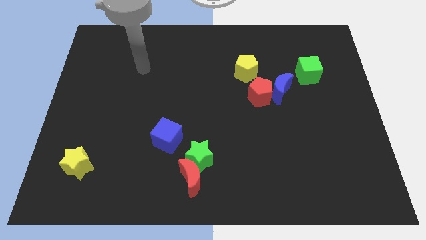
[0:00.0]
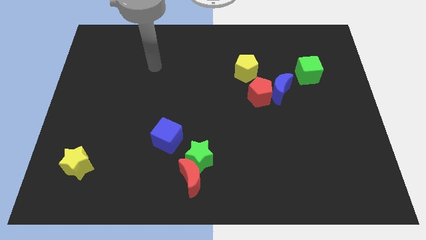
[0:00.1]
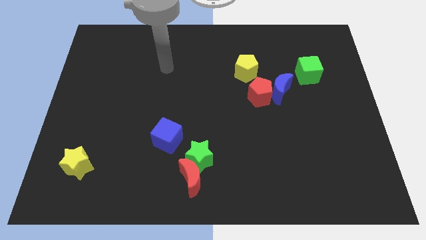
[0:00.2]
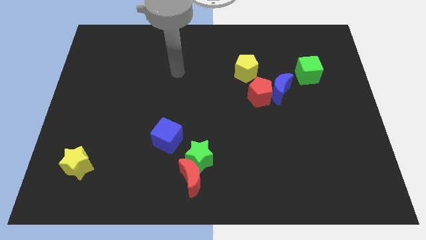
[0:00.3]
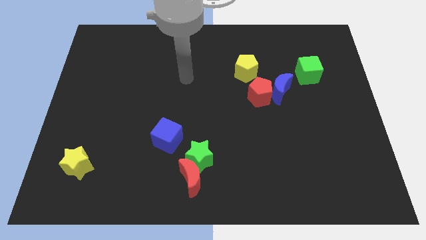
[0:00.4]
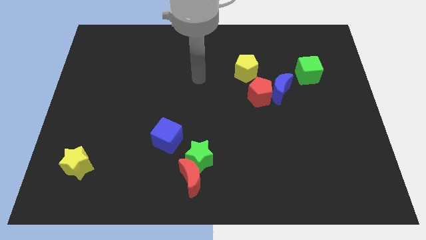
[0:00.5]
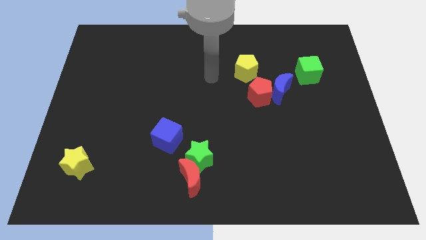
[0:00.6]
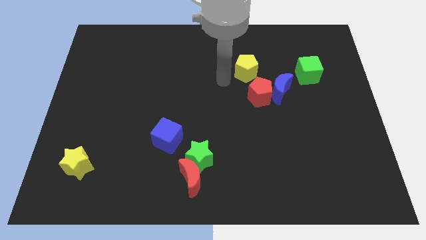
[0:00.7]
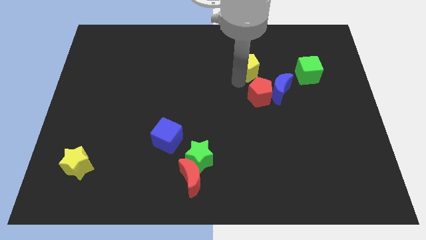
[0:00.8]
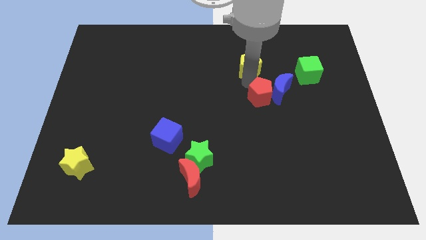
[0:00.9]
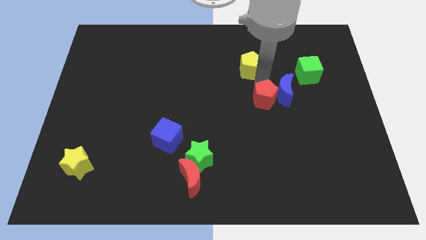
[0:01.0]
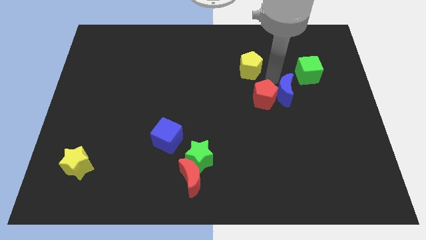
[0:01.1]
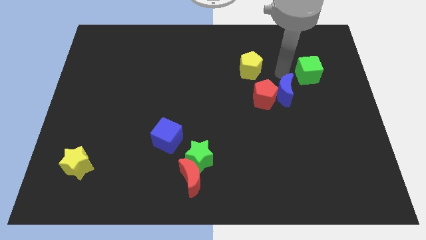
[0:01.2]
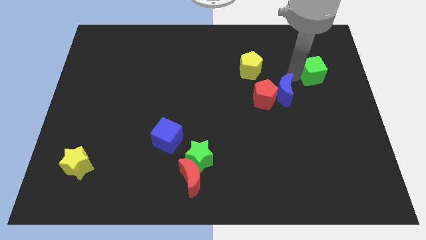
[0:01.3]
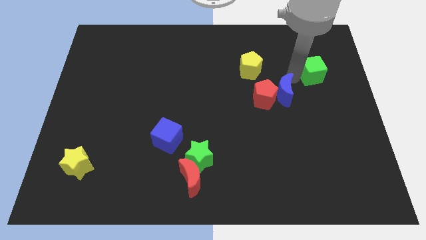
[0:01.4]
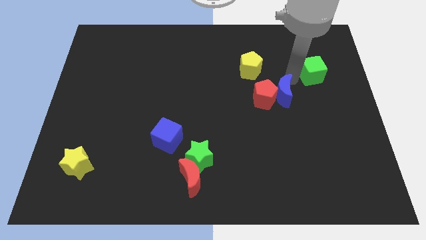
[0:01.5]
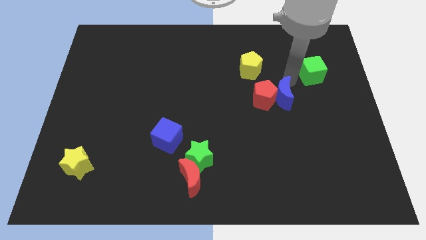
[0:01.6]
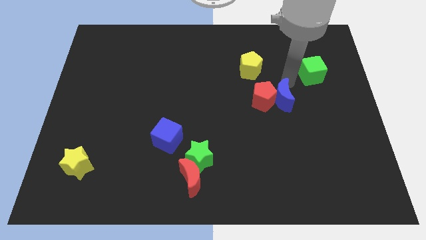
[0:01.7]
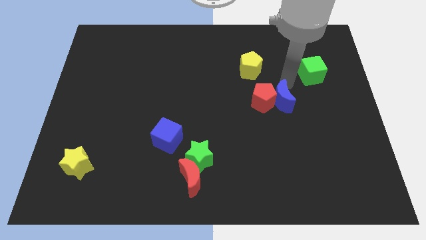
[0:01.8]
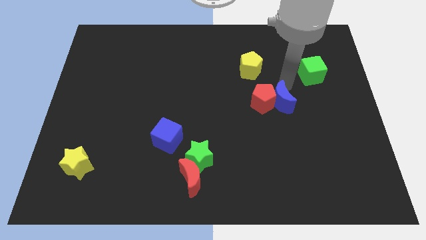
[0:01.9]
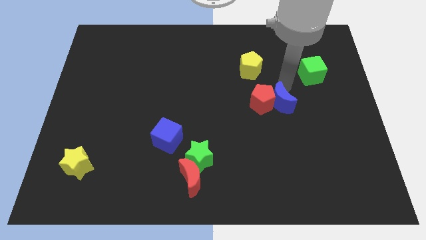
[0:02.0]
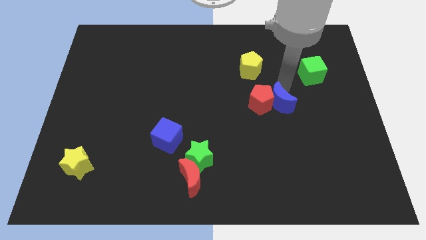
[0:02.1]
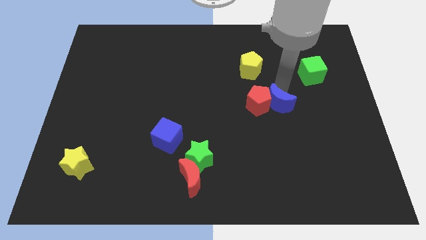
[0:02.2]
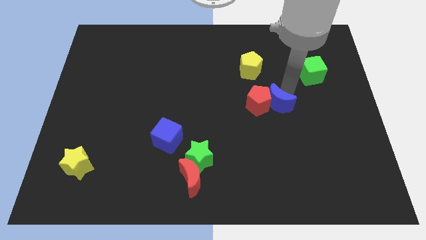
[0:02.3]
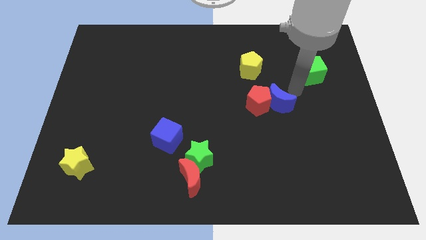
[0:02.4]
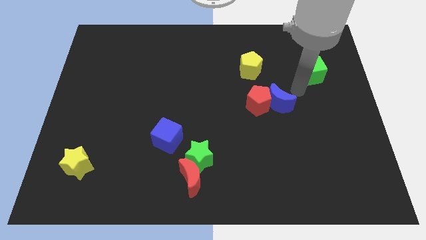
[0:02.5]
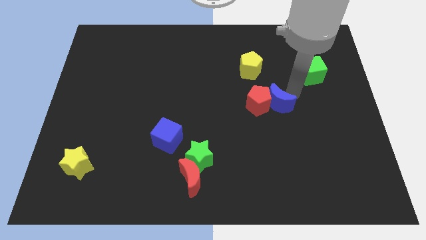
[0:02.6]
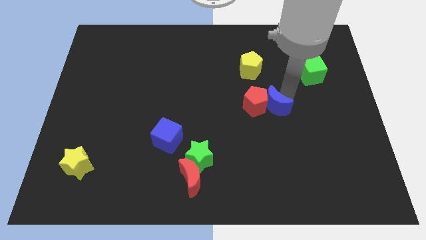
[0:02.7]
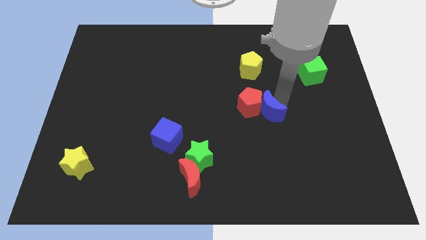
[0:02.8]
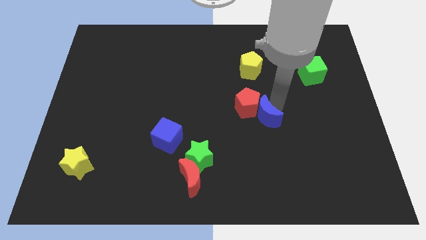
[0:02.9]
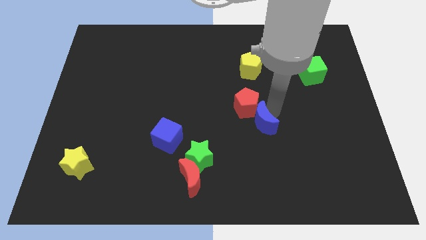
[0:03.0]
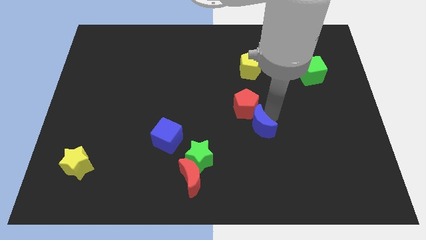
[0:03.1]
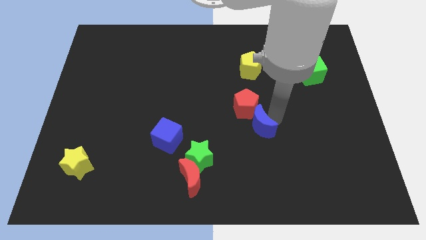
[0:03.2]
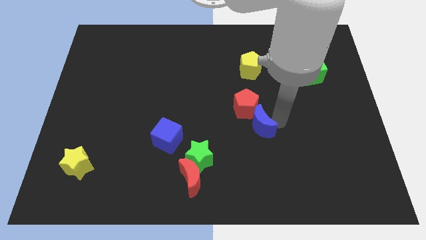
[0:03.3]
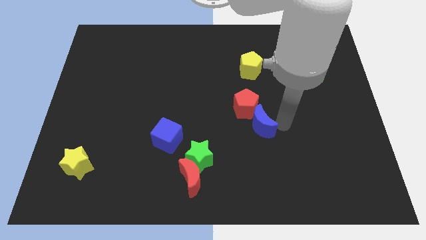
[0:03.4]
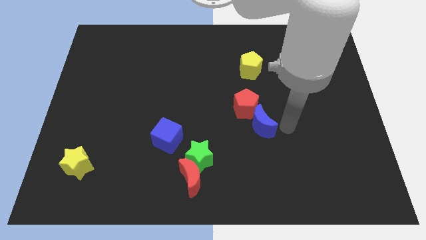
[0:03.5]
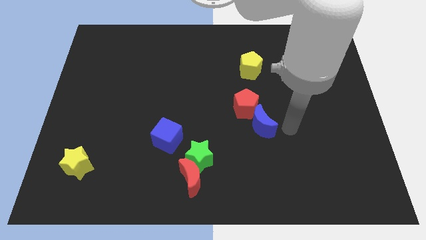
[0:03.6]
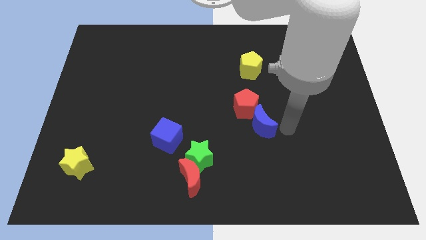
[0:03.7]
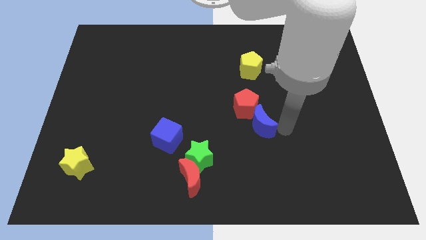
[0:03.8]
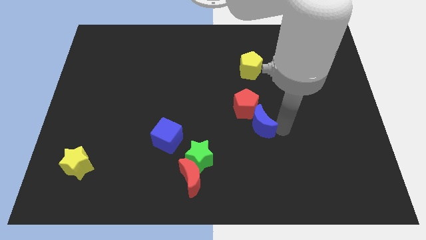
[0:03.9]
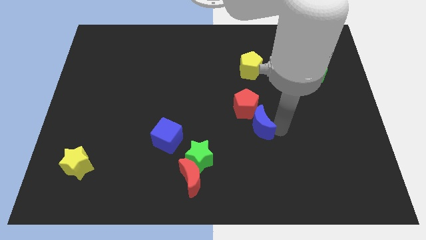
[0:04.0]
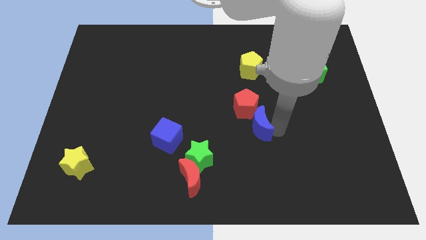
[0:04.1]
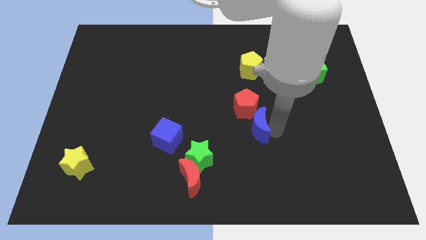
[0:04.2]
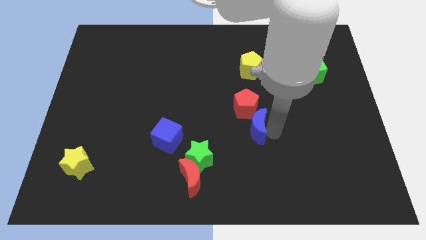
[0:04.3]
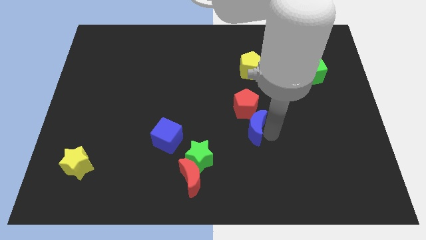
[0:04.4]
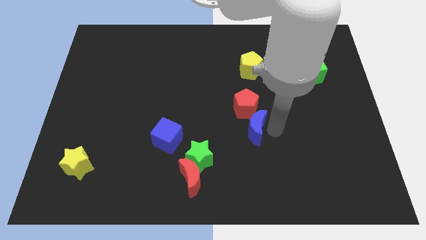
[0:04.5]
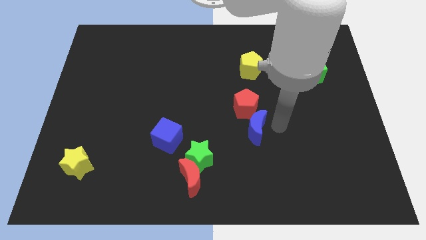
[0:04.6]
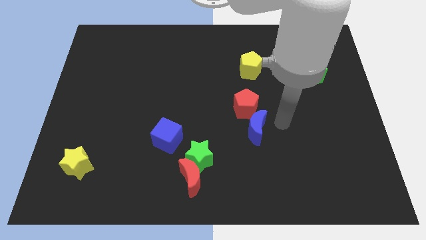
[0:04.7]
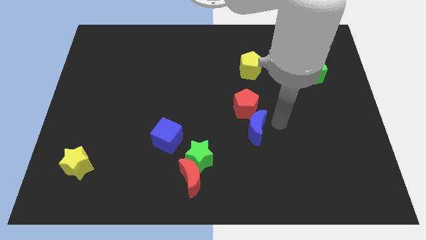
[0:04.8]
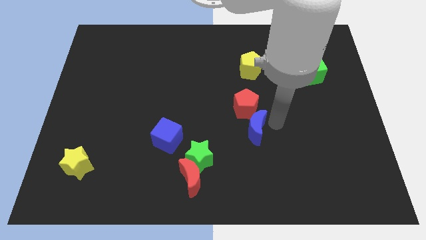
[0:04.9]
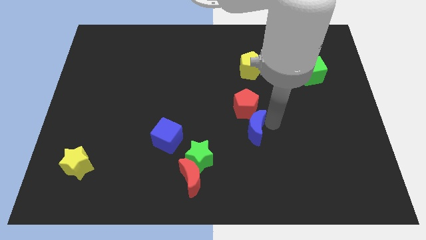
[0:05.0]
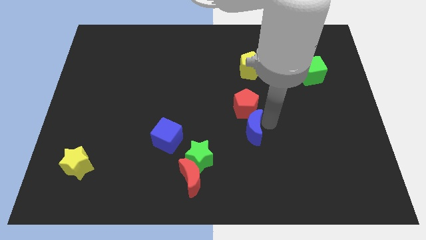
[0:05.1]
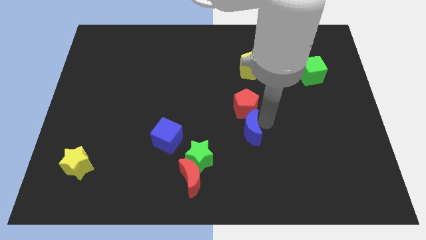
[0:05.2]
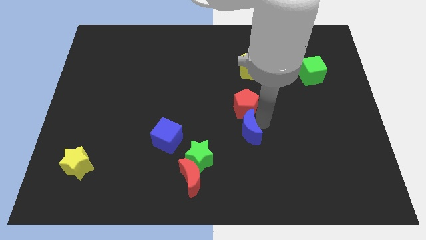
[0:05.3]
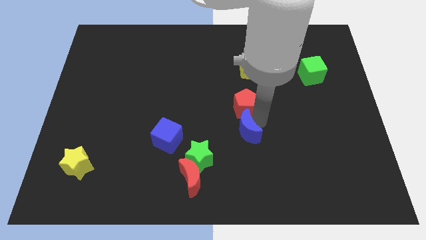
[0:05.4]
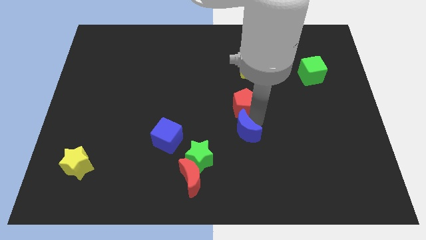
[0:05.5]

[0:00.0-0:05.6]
put the blue moon to the top right of the green star

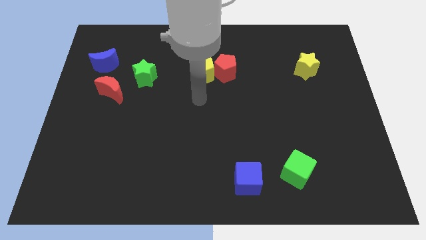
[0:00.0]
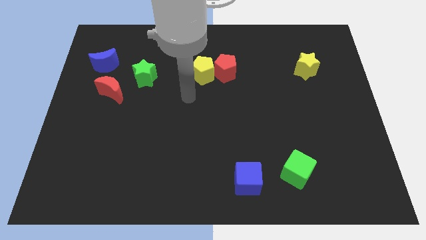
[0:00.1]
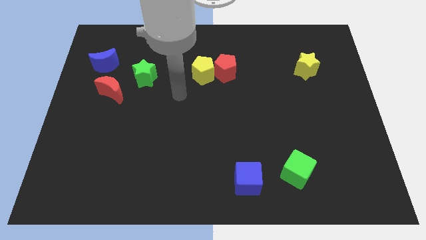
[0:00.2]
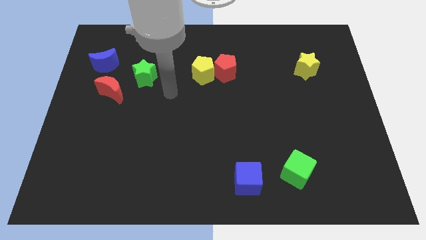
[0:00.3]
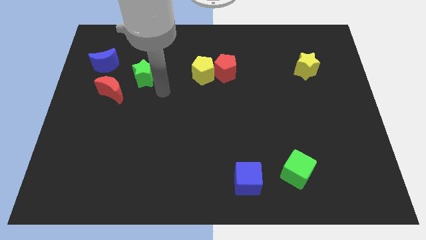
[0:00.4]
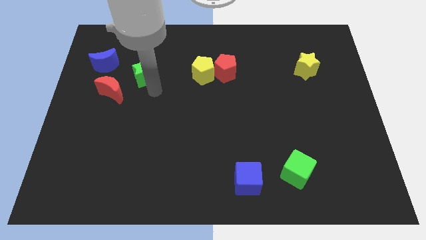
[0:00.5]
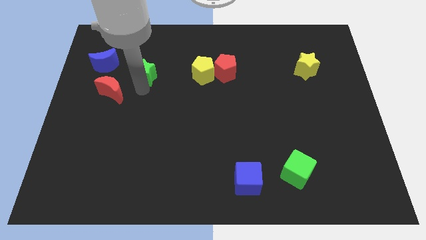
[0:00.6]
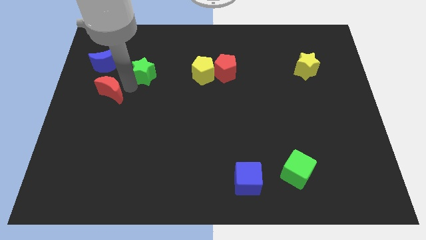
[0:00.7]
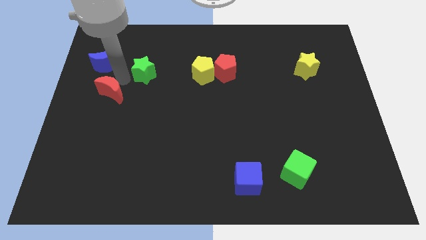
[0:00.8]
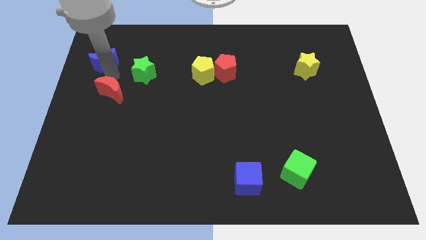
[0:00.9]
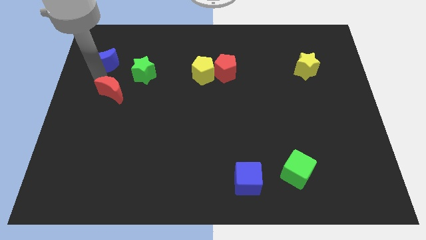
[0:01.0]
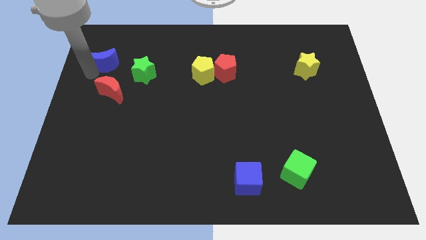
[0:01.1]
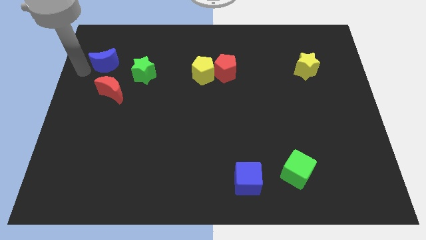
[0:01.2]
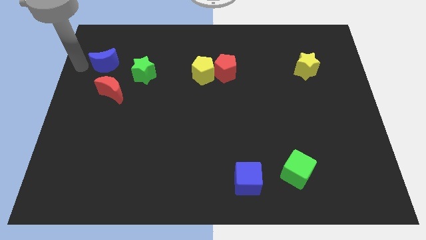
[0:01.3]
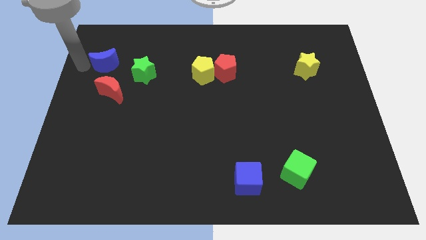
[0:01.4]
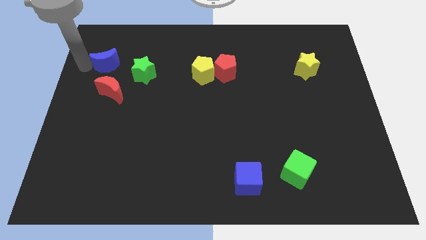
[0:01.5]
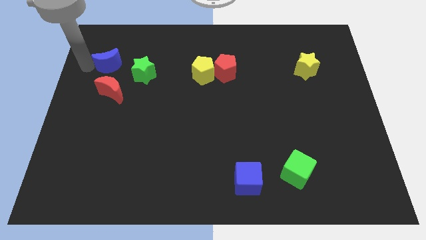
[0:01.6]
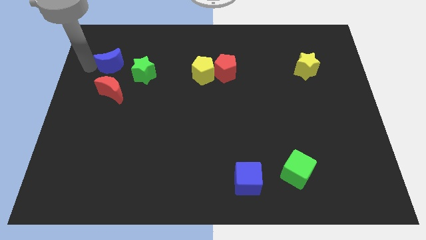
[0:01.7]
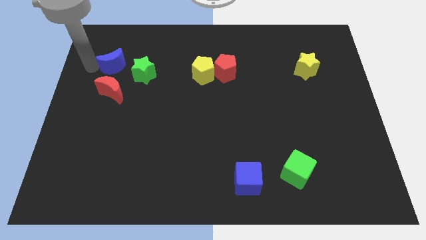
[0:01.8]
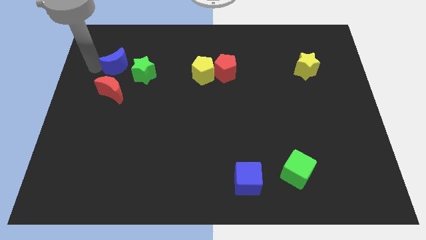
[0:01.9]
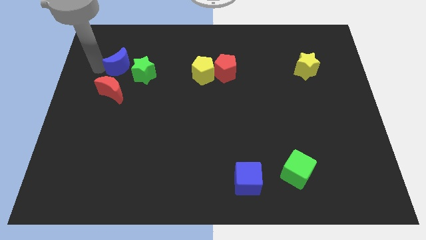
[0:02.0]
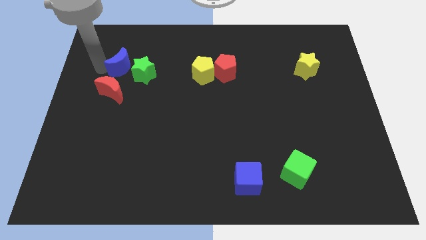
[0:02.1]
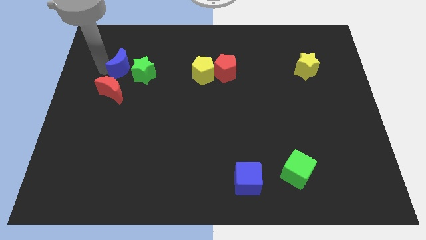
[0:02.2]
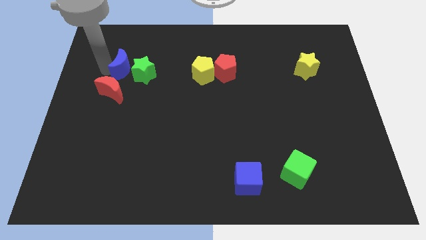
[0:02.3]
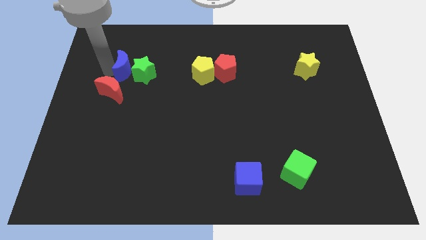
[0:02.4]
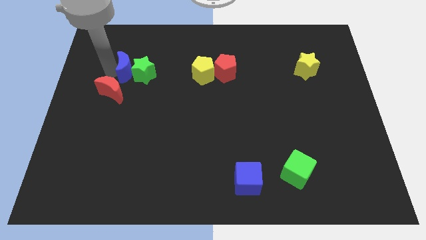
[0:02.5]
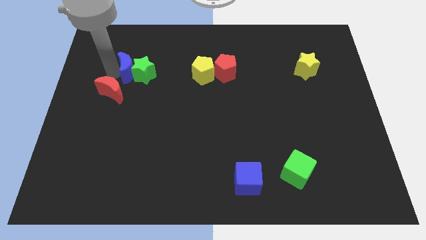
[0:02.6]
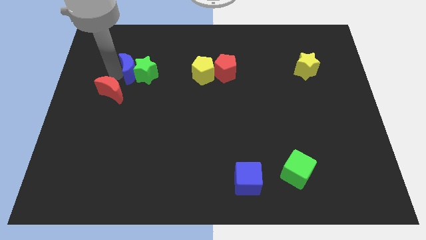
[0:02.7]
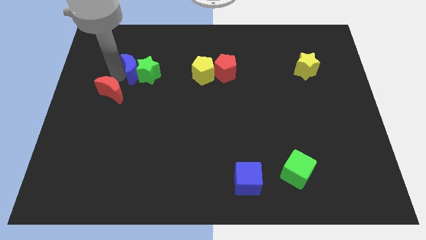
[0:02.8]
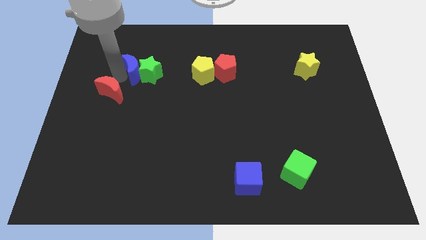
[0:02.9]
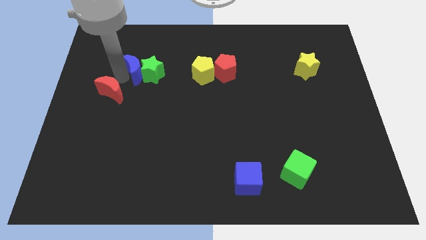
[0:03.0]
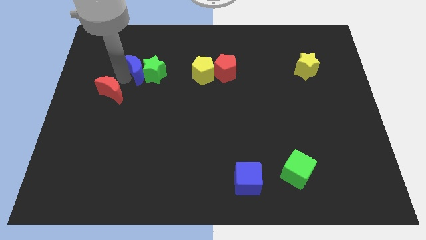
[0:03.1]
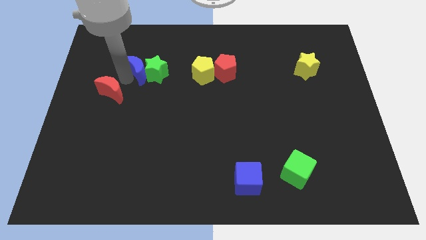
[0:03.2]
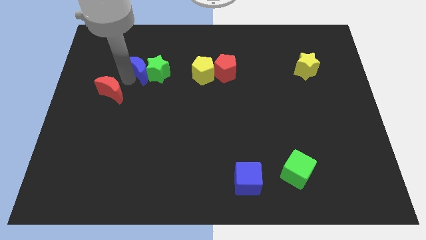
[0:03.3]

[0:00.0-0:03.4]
move the blue moon to the left of the yellow pentagon
